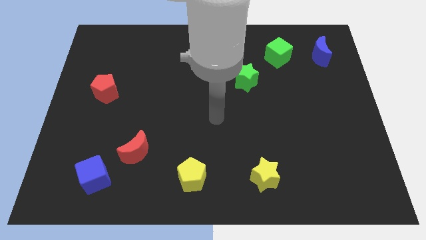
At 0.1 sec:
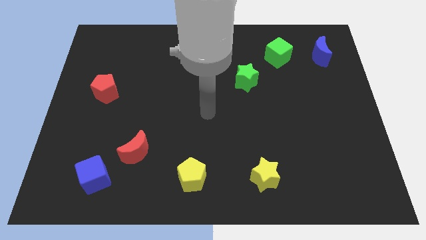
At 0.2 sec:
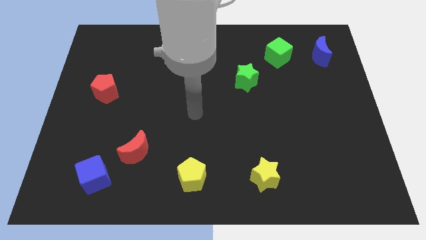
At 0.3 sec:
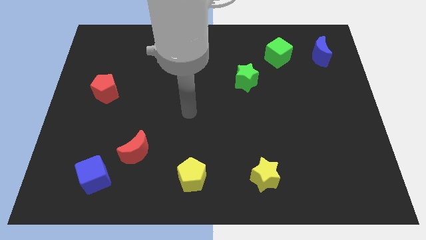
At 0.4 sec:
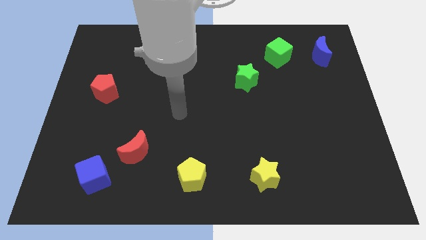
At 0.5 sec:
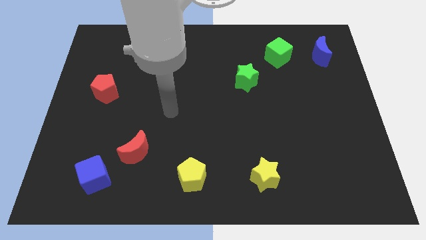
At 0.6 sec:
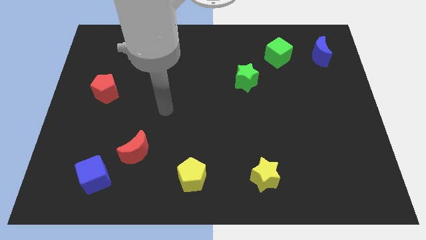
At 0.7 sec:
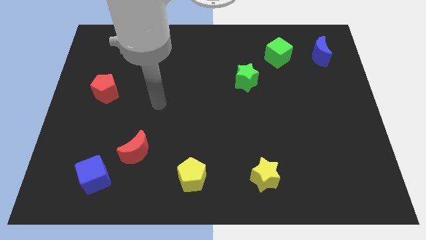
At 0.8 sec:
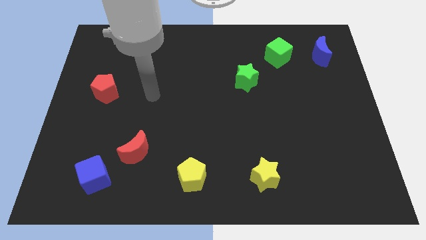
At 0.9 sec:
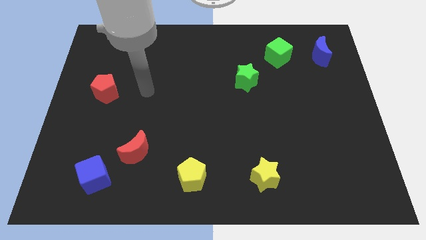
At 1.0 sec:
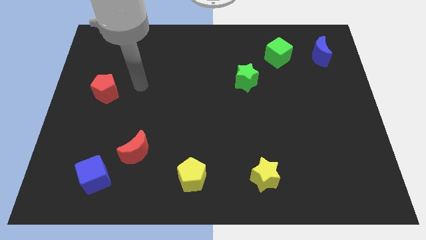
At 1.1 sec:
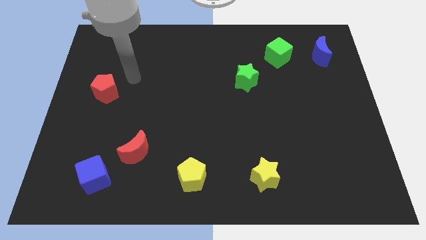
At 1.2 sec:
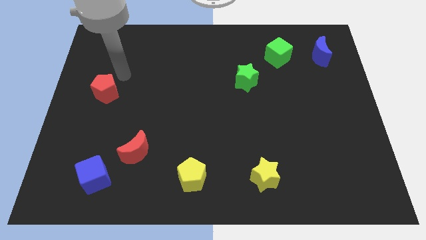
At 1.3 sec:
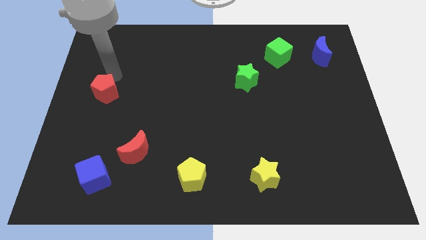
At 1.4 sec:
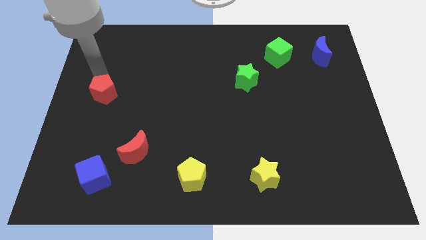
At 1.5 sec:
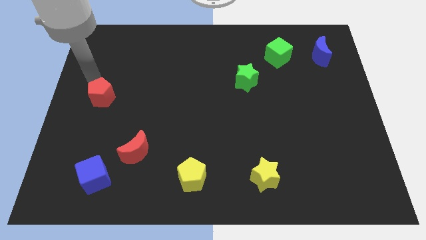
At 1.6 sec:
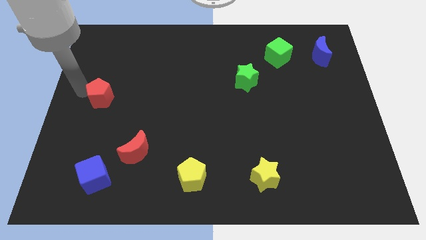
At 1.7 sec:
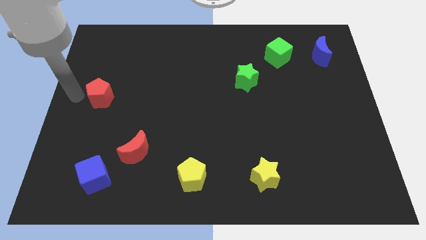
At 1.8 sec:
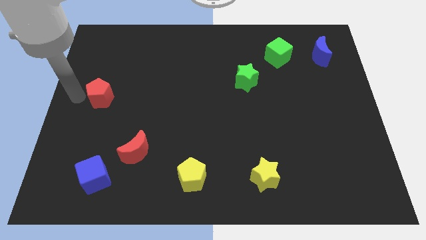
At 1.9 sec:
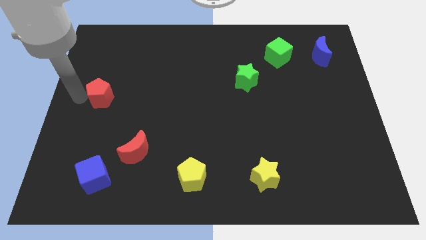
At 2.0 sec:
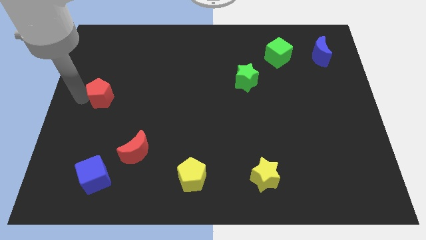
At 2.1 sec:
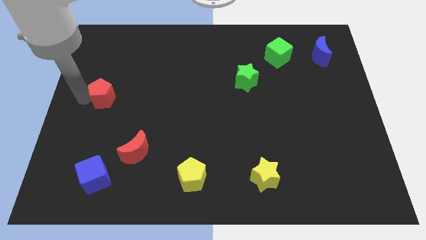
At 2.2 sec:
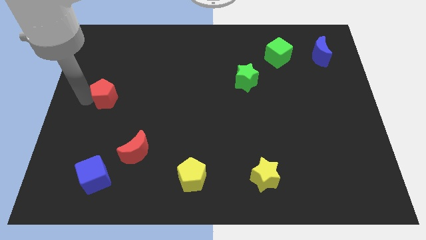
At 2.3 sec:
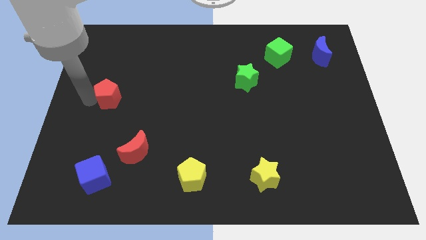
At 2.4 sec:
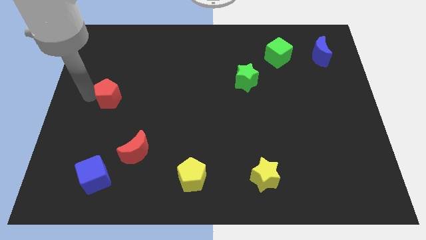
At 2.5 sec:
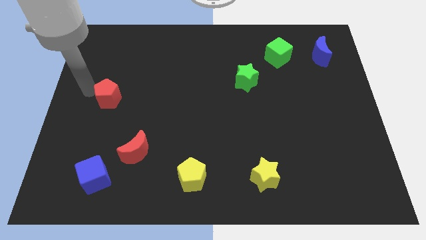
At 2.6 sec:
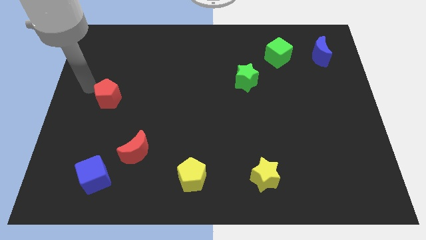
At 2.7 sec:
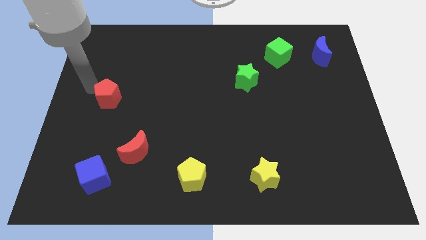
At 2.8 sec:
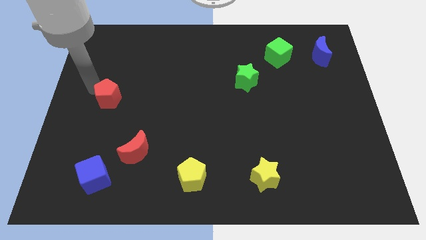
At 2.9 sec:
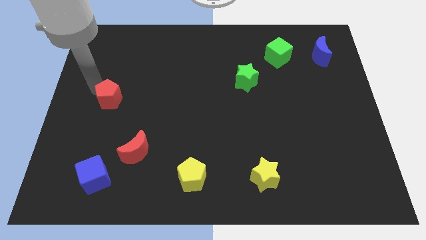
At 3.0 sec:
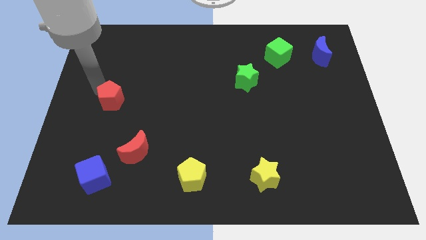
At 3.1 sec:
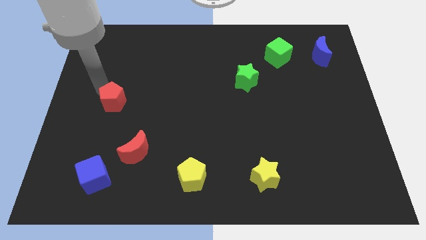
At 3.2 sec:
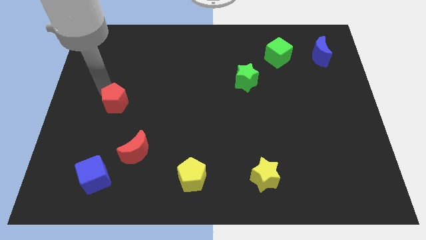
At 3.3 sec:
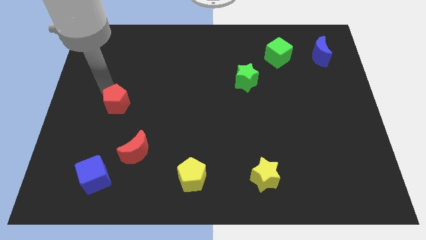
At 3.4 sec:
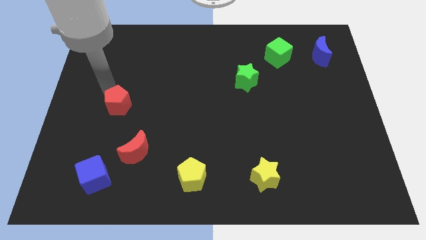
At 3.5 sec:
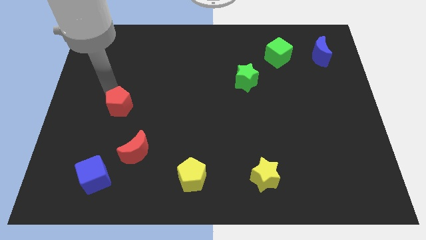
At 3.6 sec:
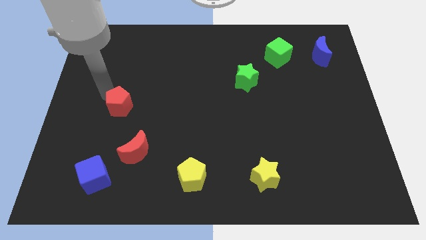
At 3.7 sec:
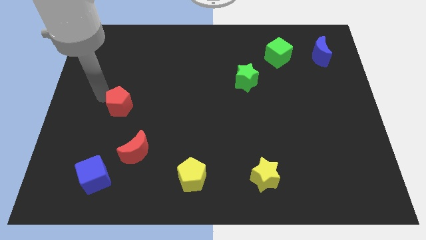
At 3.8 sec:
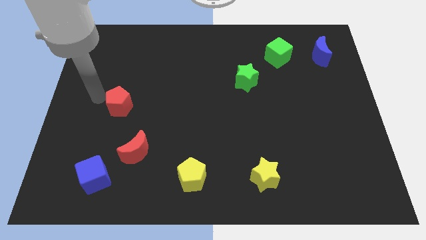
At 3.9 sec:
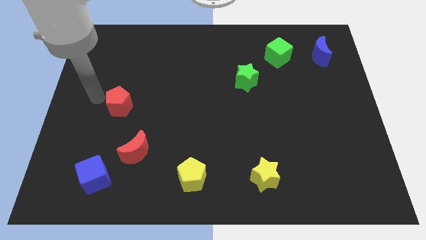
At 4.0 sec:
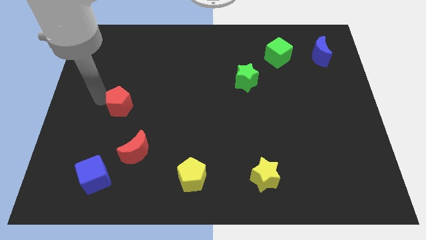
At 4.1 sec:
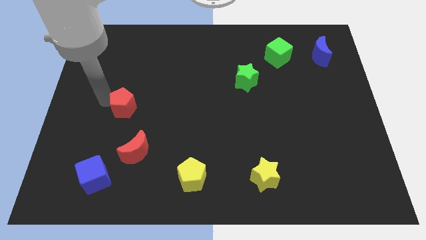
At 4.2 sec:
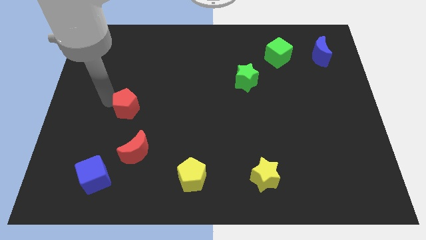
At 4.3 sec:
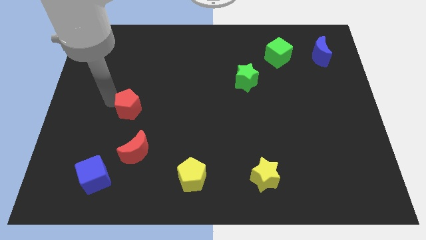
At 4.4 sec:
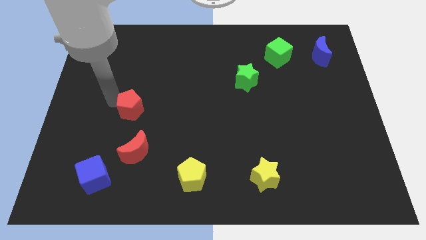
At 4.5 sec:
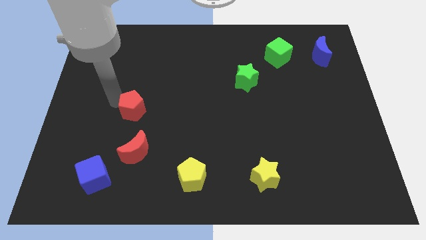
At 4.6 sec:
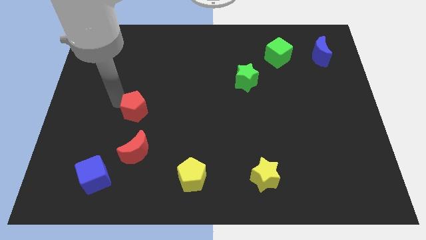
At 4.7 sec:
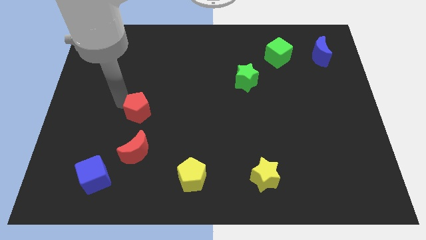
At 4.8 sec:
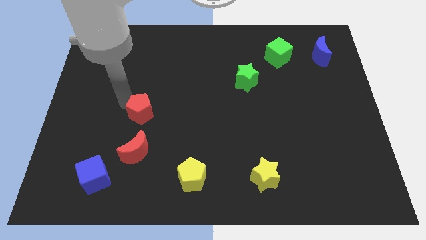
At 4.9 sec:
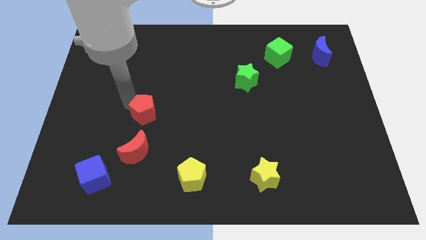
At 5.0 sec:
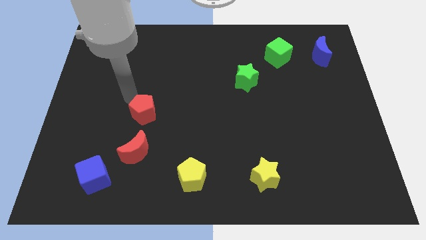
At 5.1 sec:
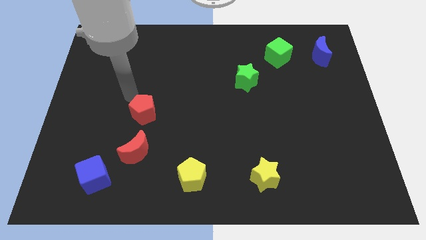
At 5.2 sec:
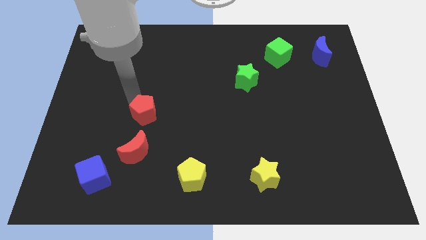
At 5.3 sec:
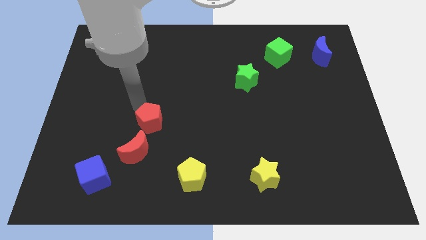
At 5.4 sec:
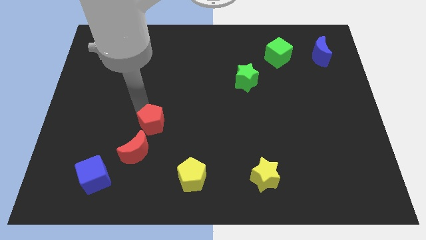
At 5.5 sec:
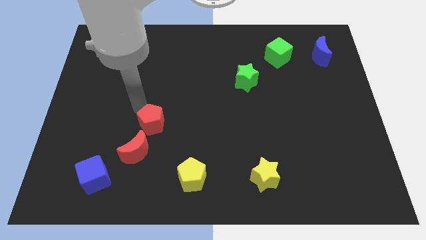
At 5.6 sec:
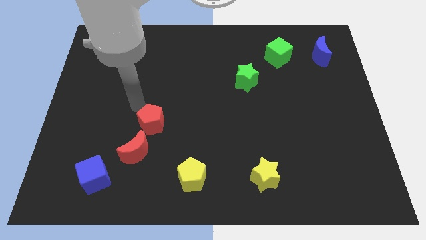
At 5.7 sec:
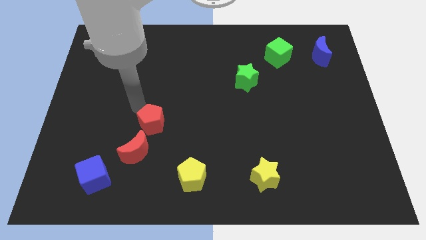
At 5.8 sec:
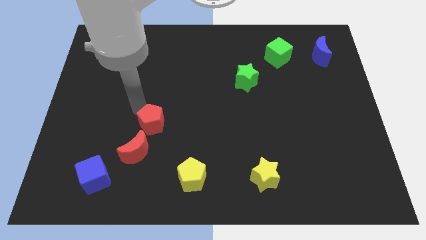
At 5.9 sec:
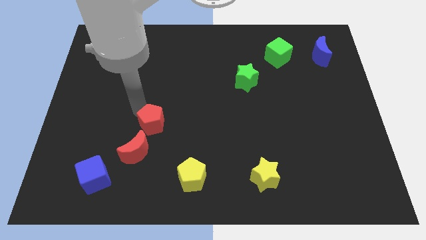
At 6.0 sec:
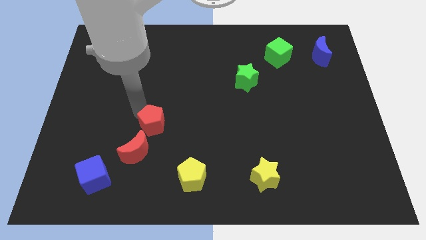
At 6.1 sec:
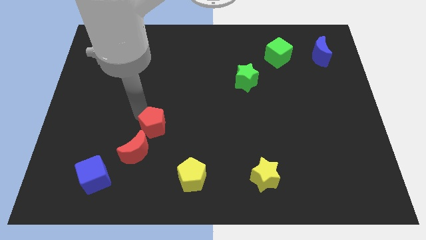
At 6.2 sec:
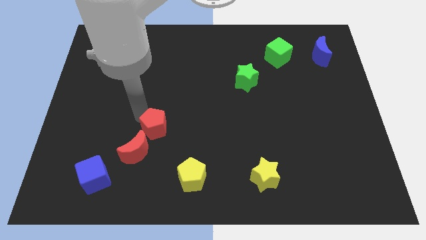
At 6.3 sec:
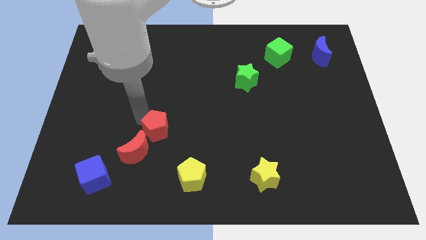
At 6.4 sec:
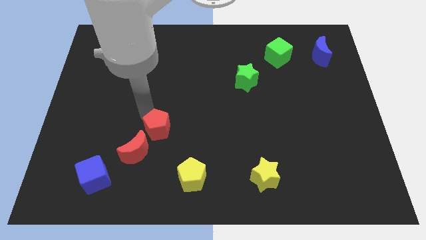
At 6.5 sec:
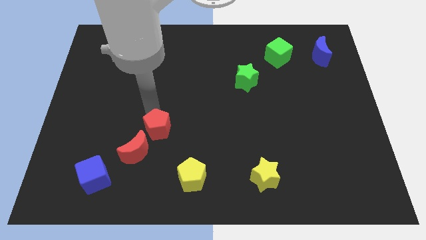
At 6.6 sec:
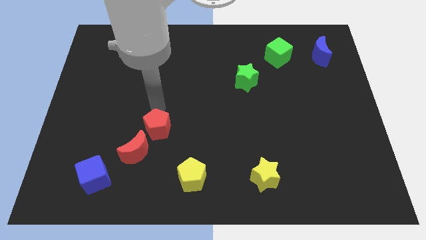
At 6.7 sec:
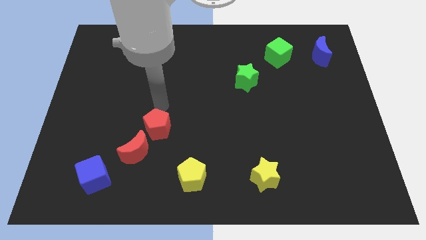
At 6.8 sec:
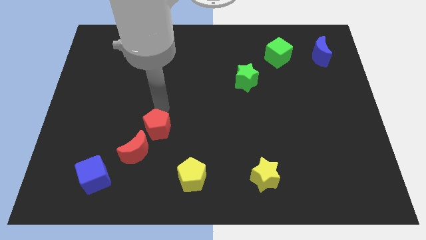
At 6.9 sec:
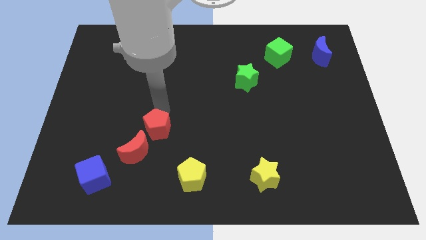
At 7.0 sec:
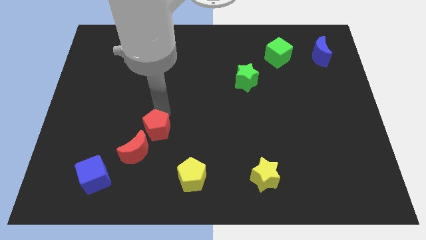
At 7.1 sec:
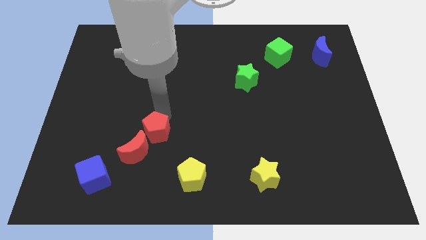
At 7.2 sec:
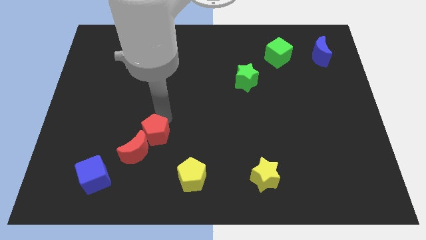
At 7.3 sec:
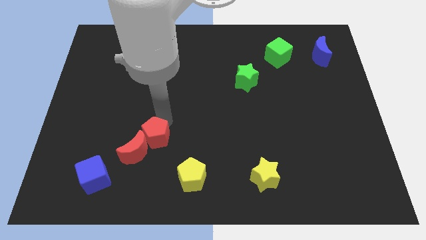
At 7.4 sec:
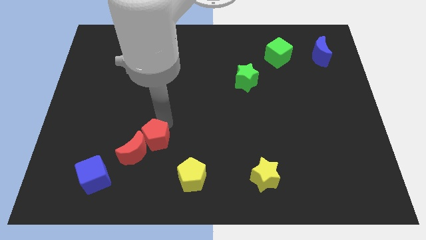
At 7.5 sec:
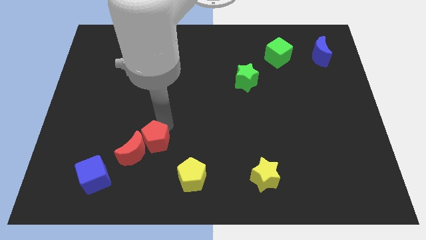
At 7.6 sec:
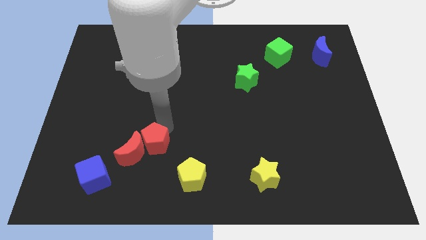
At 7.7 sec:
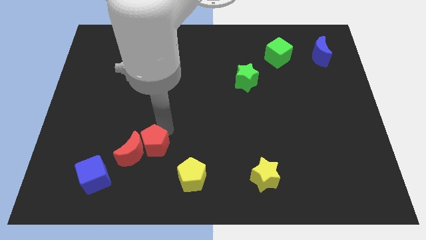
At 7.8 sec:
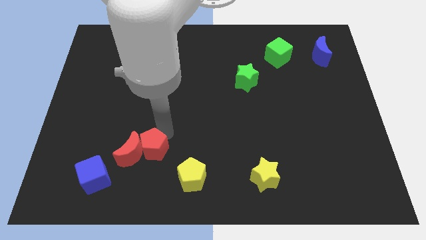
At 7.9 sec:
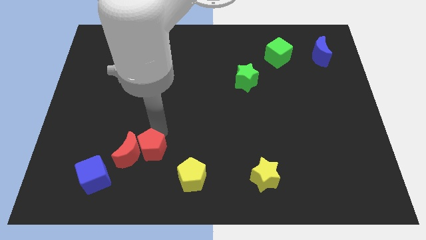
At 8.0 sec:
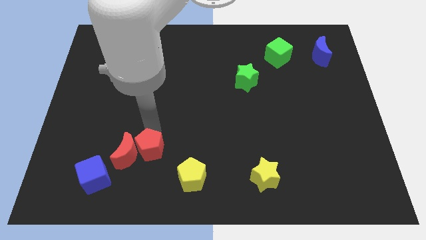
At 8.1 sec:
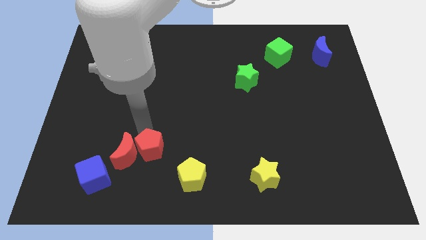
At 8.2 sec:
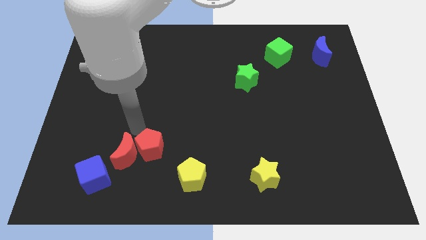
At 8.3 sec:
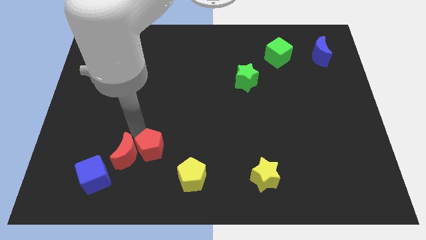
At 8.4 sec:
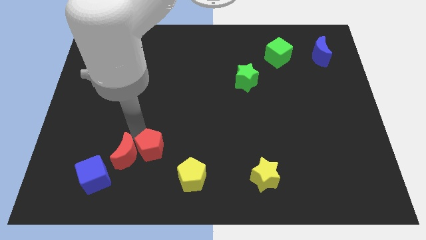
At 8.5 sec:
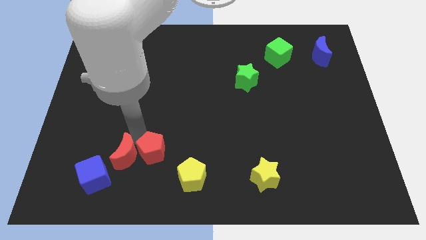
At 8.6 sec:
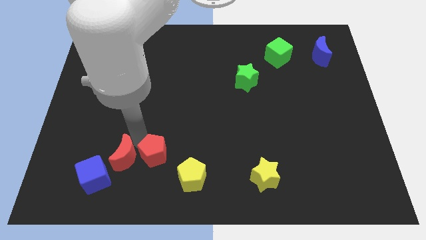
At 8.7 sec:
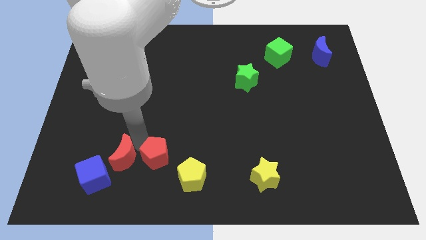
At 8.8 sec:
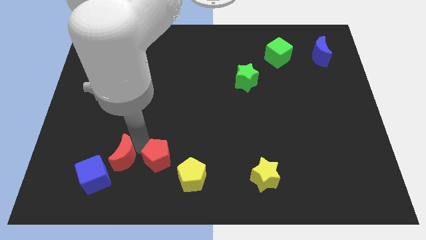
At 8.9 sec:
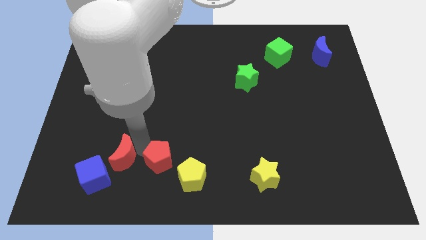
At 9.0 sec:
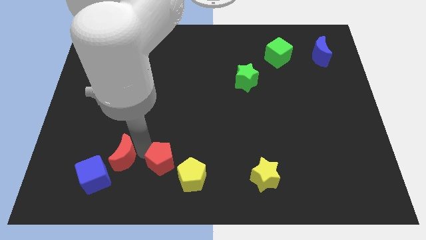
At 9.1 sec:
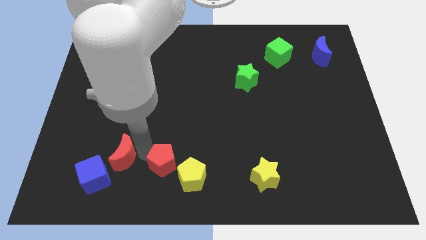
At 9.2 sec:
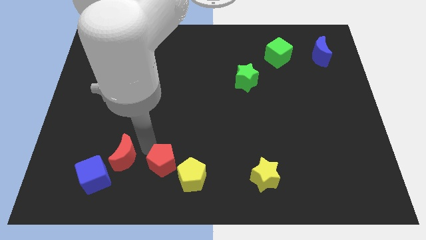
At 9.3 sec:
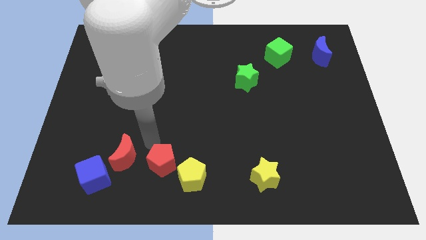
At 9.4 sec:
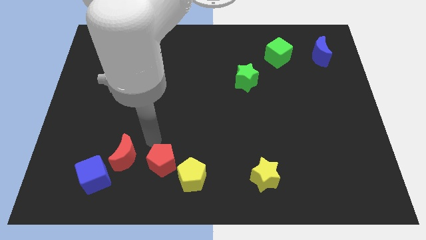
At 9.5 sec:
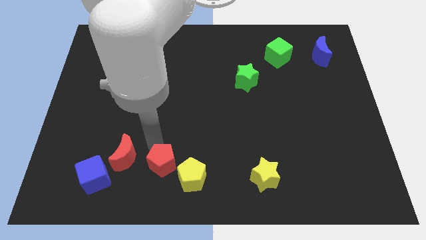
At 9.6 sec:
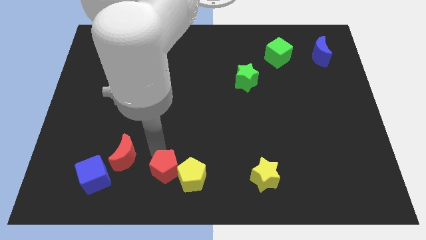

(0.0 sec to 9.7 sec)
slide the red pentagon to the bottom side
